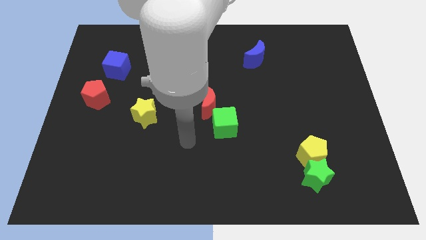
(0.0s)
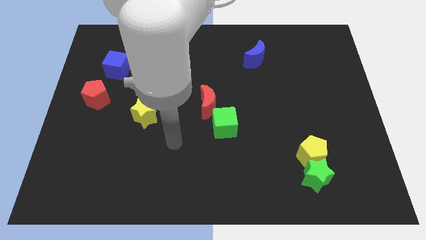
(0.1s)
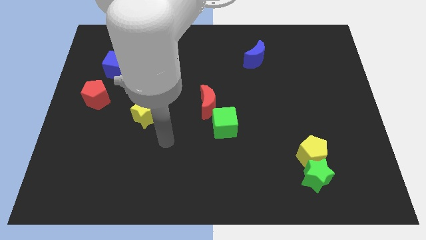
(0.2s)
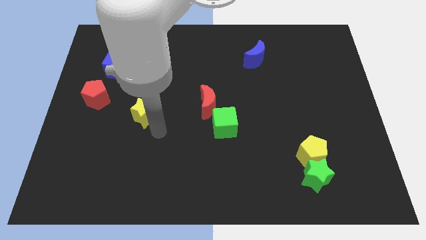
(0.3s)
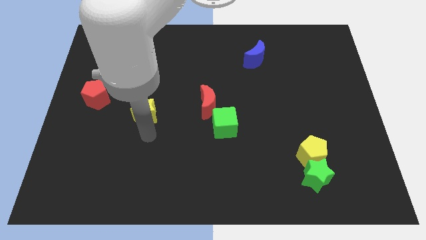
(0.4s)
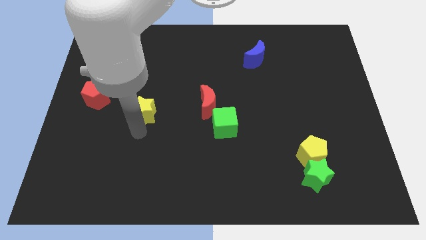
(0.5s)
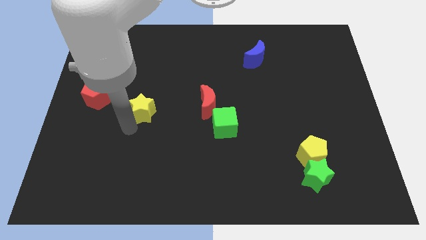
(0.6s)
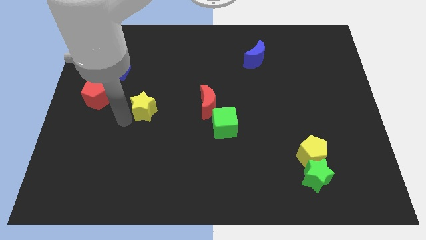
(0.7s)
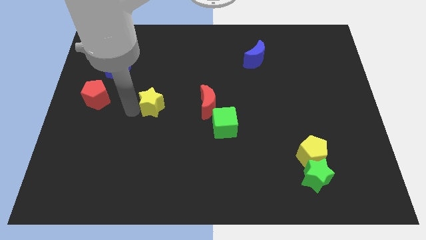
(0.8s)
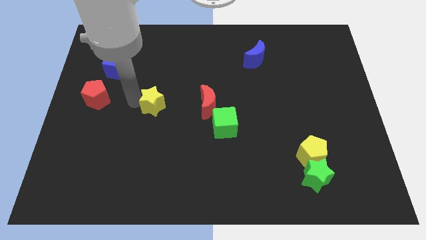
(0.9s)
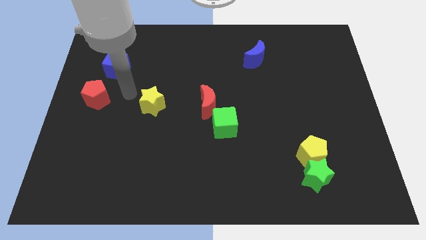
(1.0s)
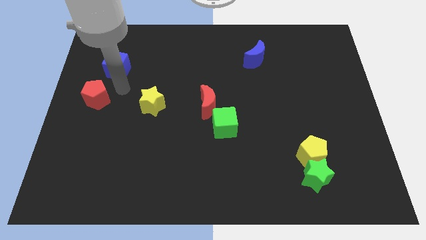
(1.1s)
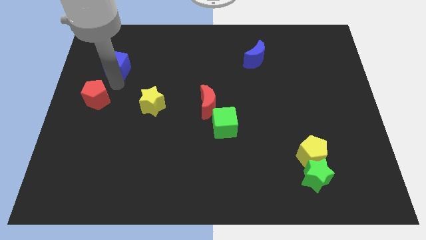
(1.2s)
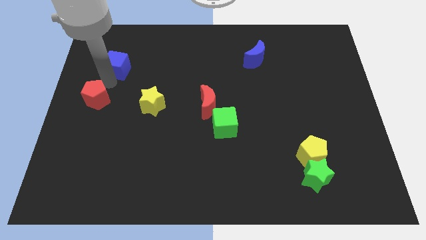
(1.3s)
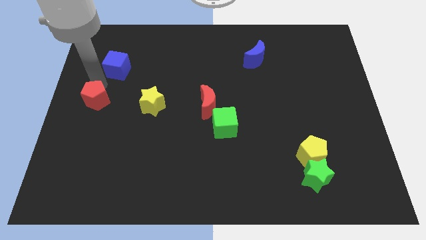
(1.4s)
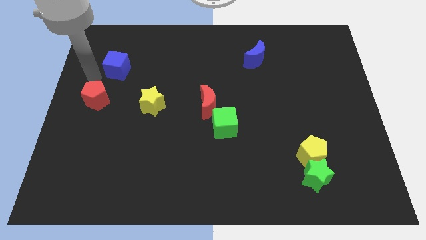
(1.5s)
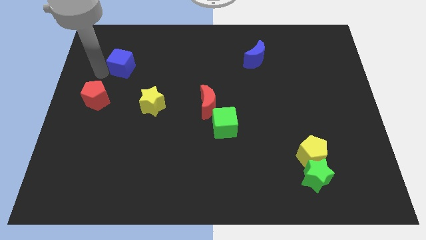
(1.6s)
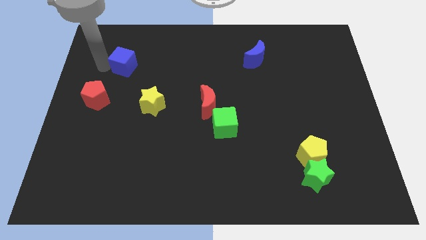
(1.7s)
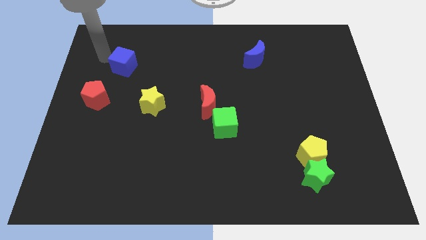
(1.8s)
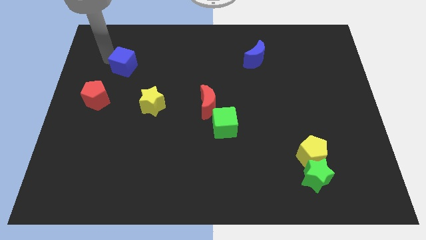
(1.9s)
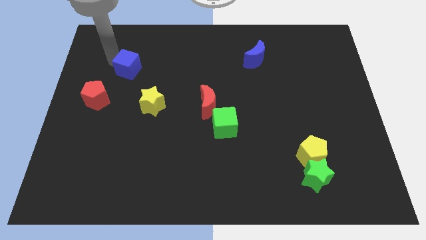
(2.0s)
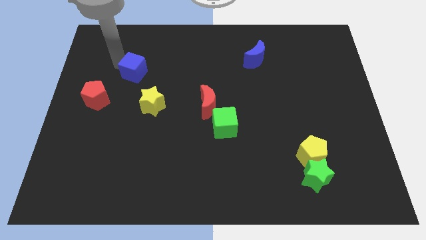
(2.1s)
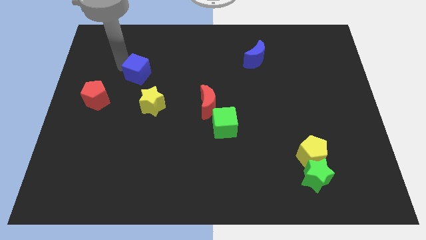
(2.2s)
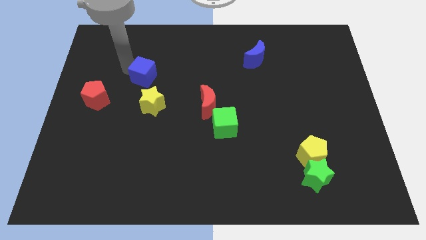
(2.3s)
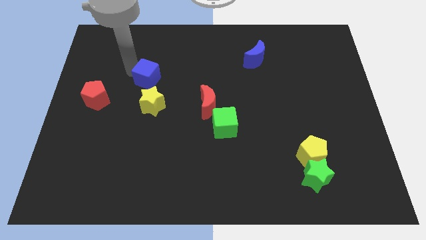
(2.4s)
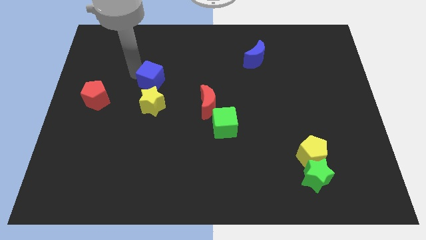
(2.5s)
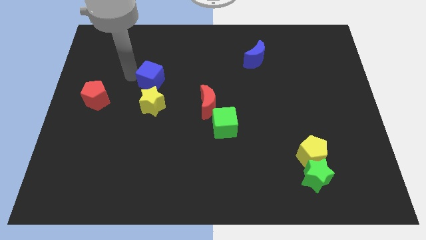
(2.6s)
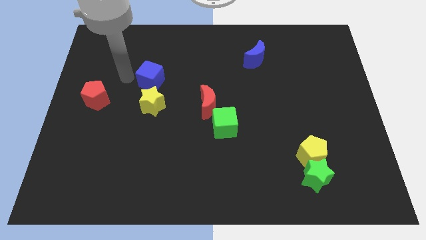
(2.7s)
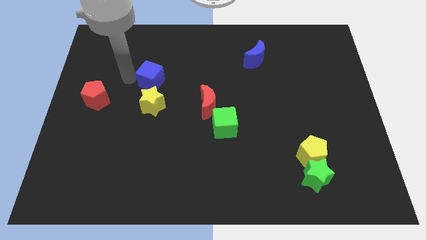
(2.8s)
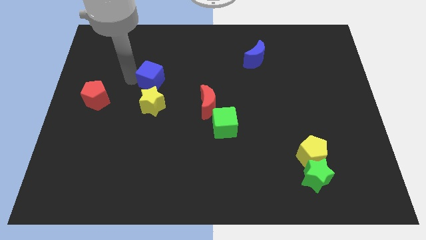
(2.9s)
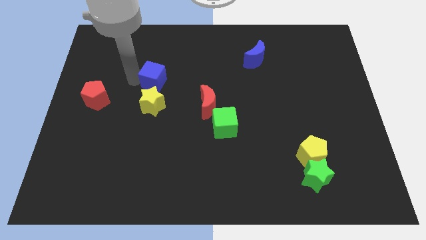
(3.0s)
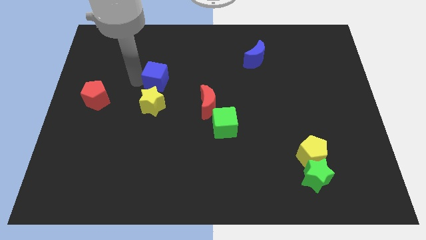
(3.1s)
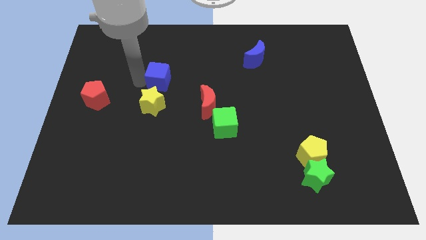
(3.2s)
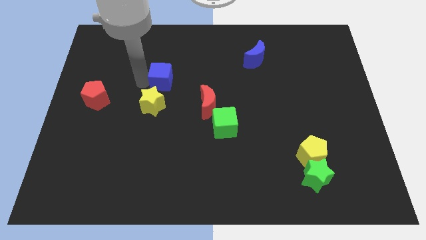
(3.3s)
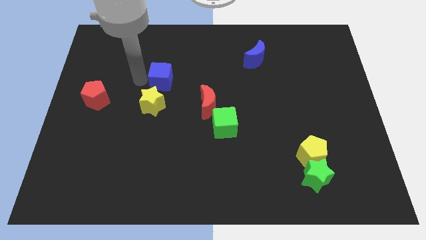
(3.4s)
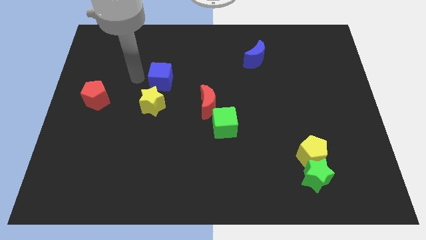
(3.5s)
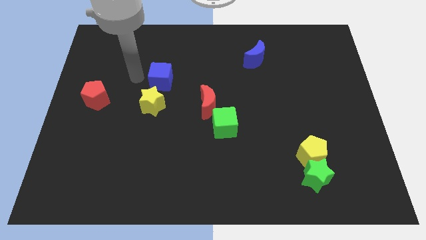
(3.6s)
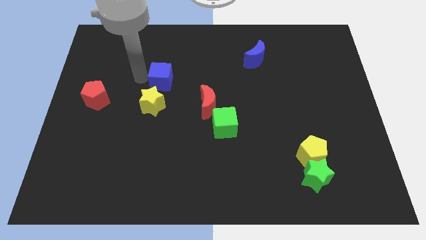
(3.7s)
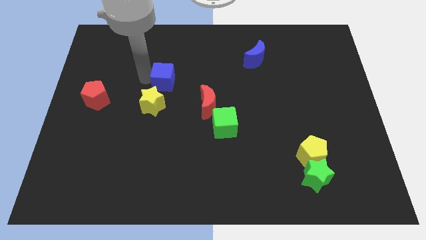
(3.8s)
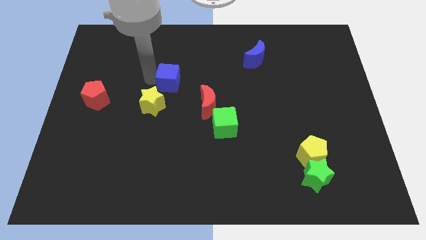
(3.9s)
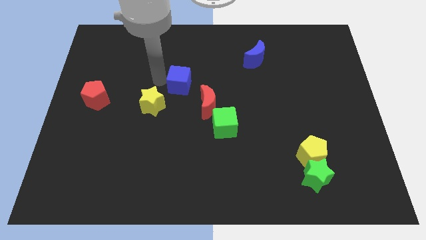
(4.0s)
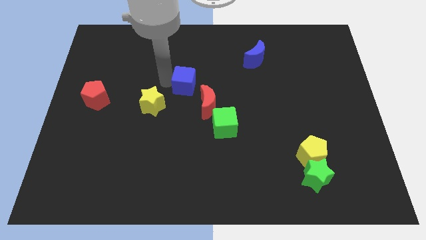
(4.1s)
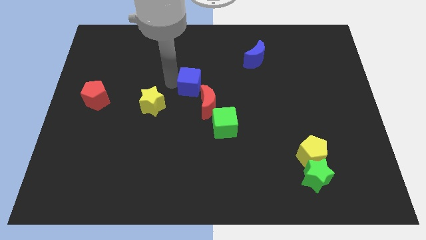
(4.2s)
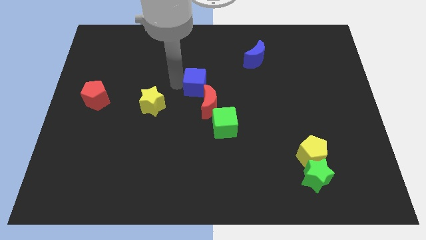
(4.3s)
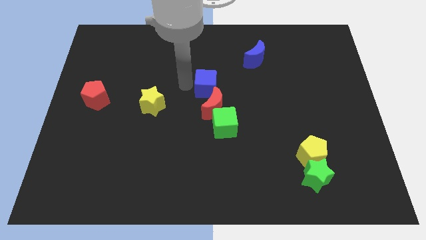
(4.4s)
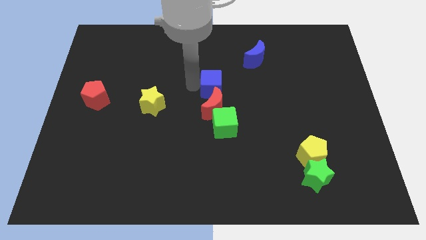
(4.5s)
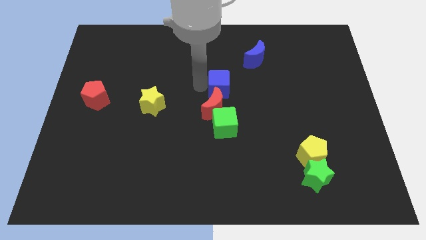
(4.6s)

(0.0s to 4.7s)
move the blue cube diagonally up and to the right of the red moon

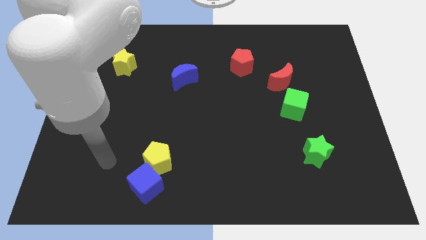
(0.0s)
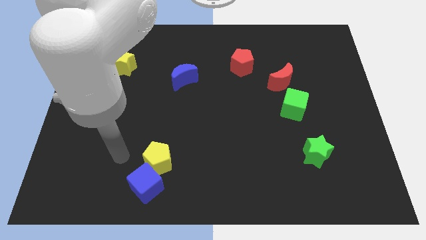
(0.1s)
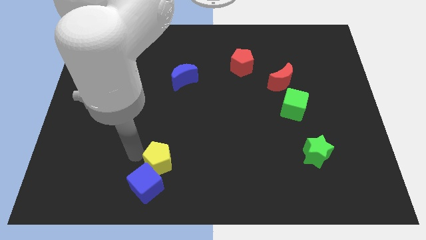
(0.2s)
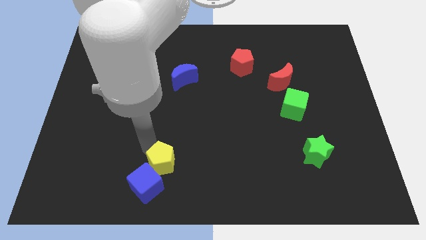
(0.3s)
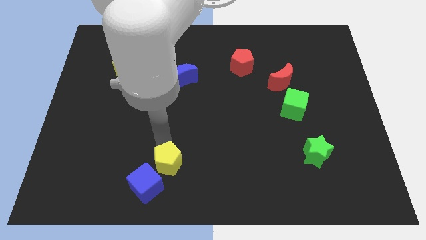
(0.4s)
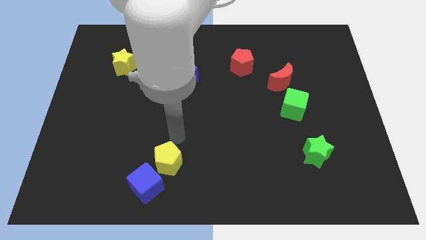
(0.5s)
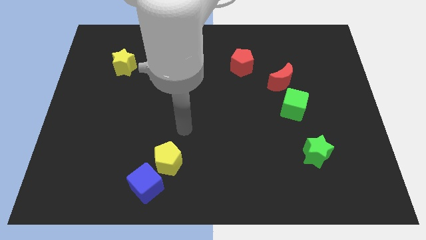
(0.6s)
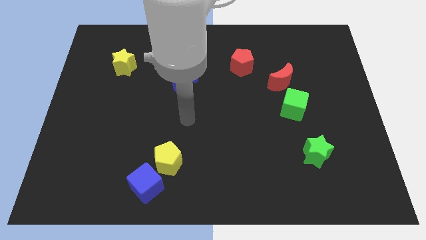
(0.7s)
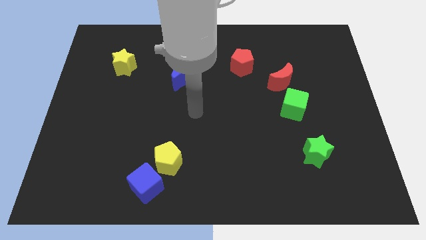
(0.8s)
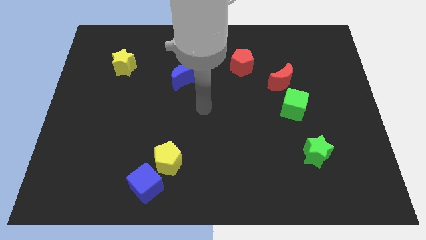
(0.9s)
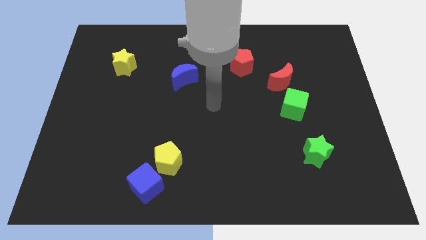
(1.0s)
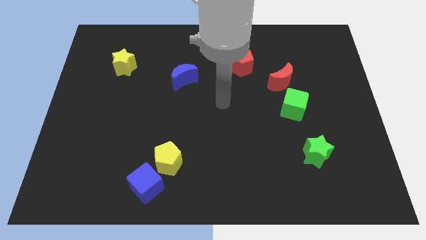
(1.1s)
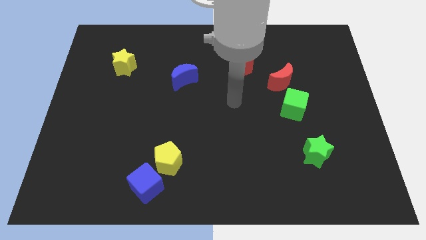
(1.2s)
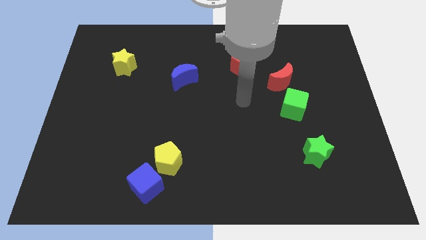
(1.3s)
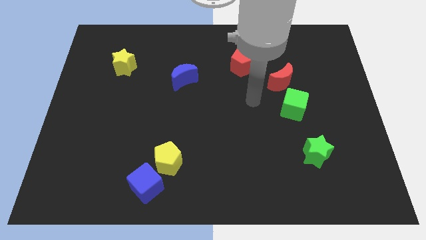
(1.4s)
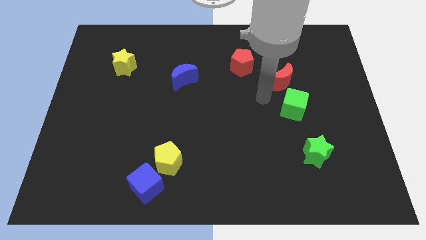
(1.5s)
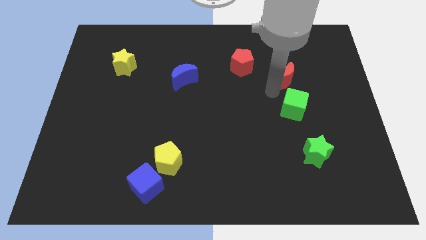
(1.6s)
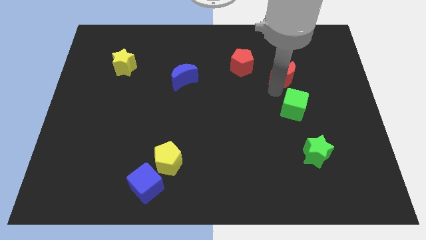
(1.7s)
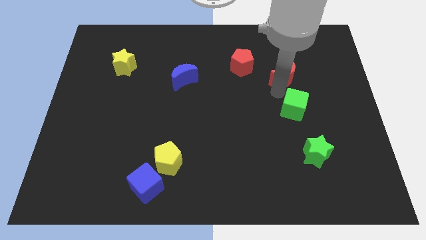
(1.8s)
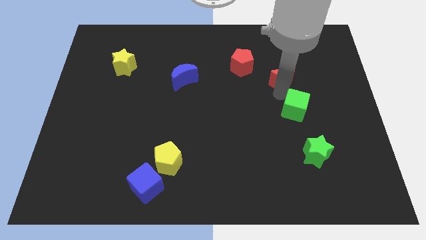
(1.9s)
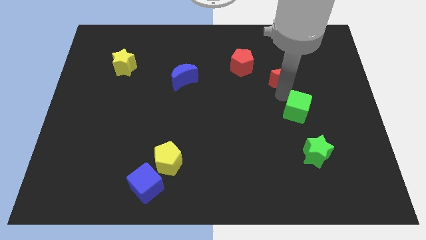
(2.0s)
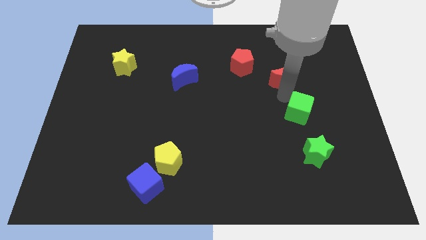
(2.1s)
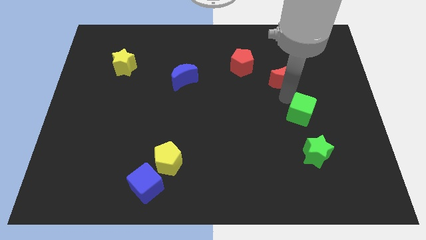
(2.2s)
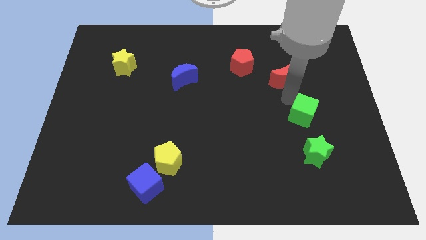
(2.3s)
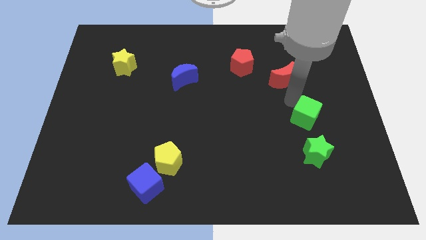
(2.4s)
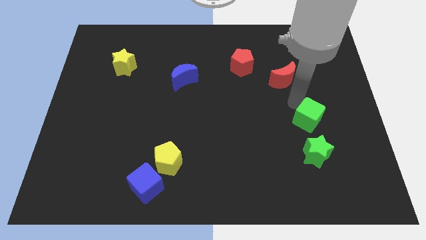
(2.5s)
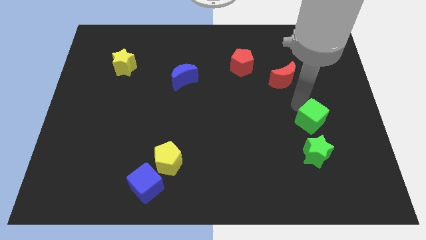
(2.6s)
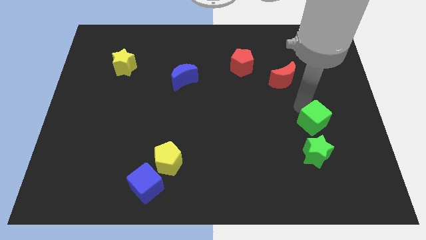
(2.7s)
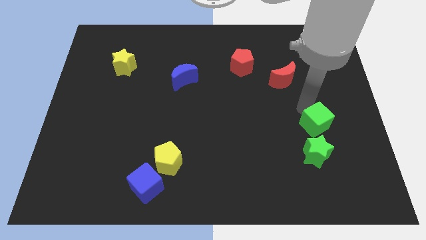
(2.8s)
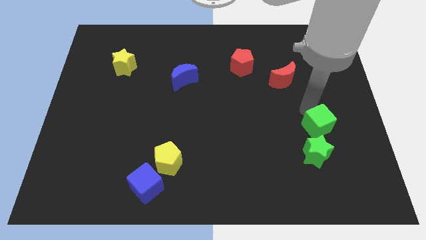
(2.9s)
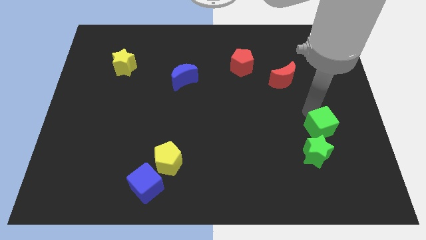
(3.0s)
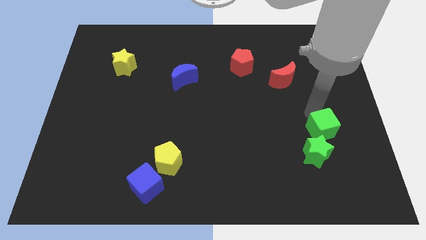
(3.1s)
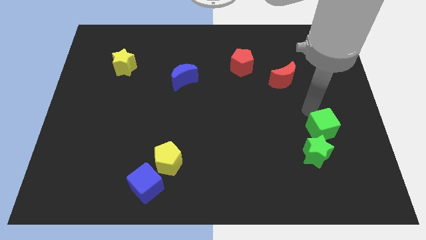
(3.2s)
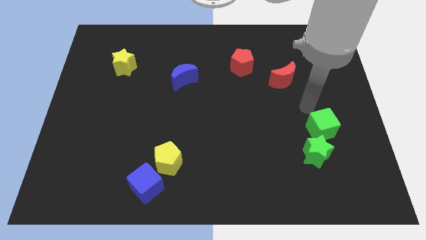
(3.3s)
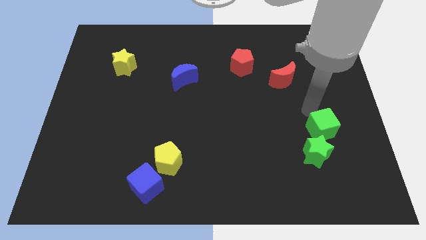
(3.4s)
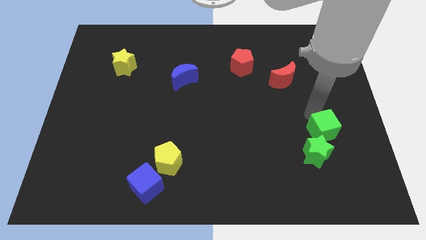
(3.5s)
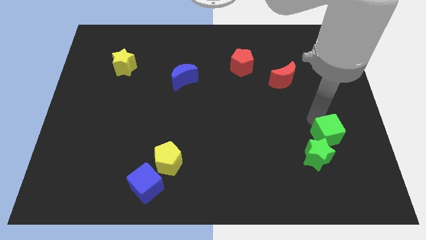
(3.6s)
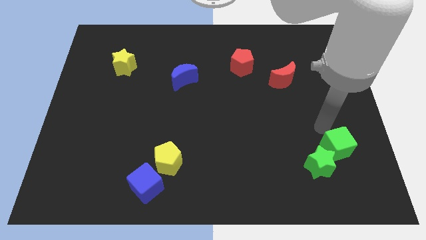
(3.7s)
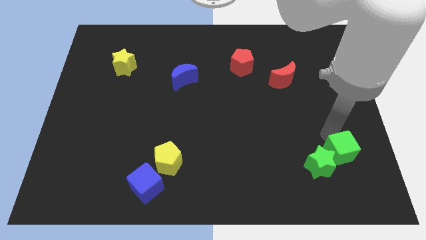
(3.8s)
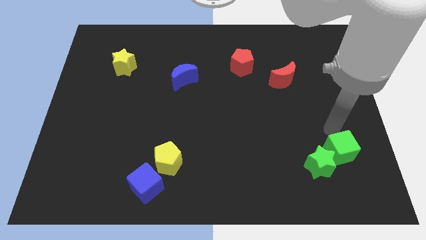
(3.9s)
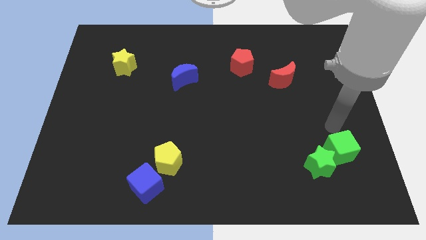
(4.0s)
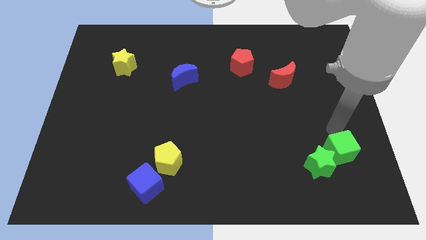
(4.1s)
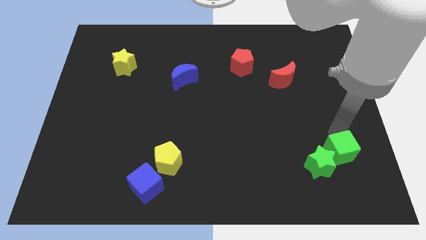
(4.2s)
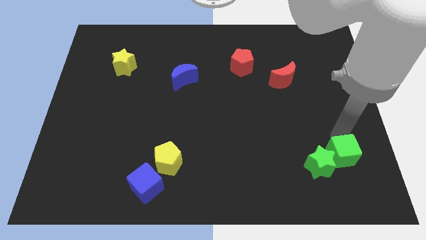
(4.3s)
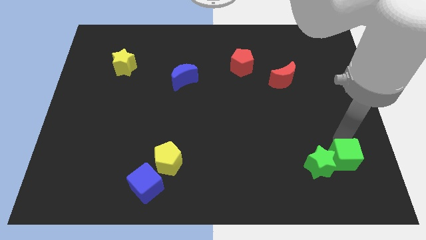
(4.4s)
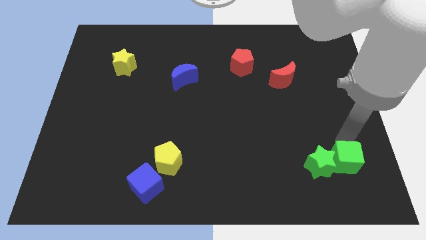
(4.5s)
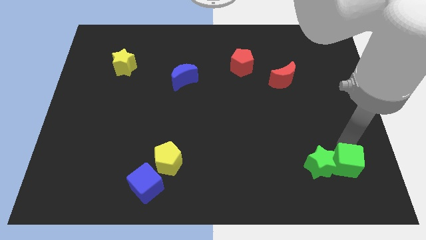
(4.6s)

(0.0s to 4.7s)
put the green cube to the bottom right side of the green star
